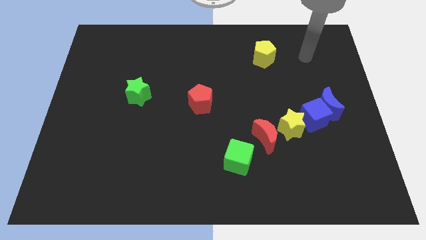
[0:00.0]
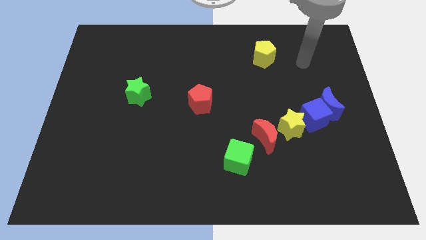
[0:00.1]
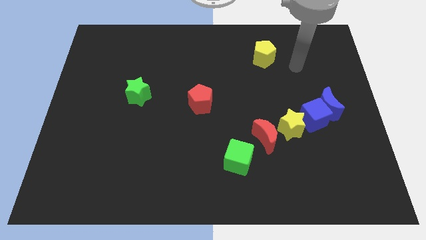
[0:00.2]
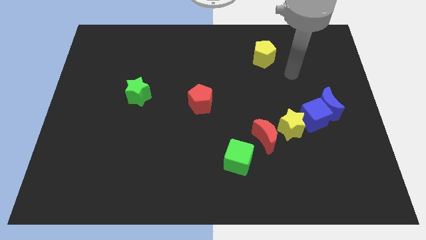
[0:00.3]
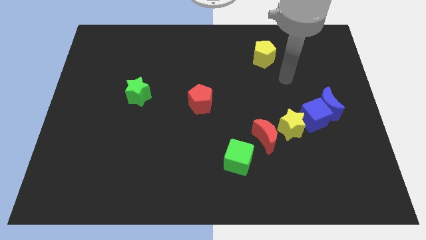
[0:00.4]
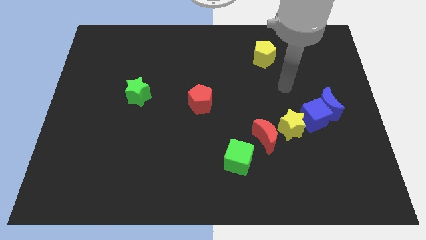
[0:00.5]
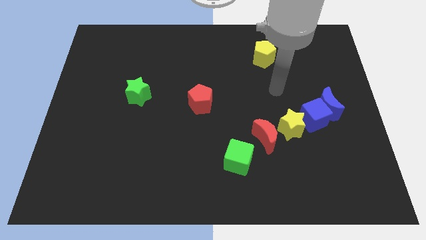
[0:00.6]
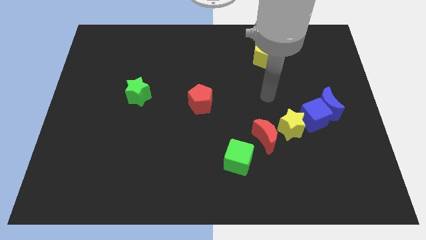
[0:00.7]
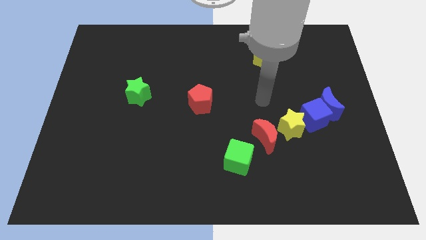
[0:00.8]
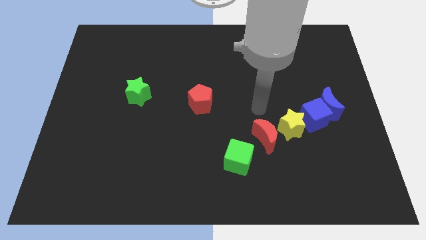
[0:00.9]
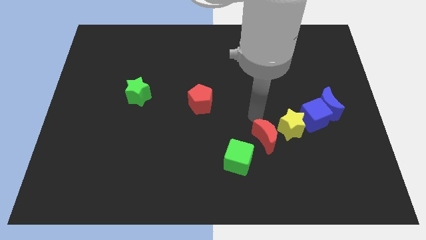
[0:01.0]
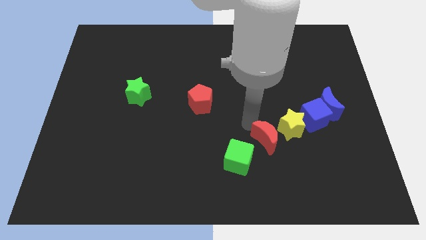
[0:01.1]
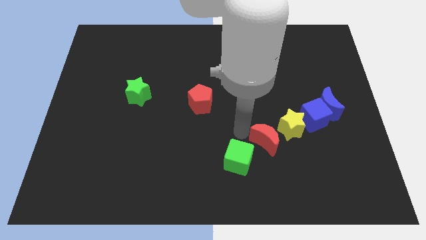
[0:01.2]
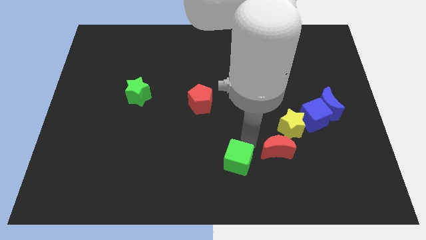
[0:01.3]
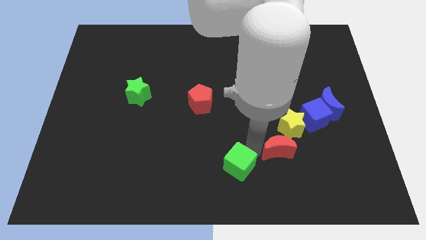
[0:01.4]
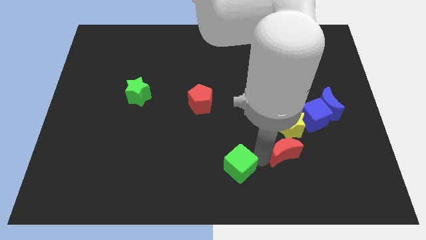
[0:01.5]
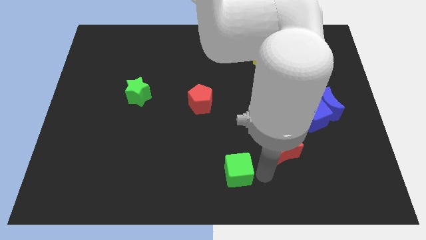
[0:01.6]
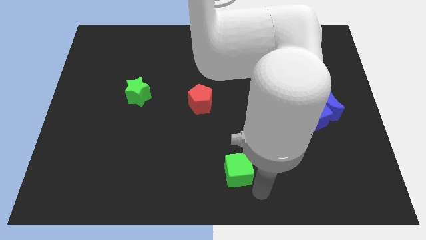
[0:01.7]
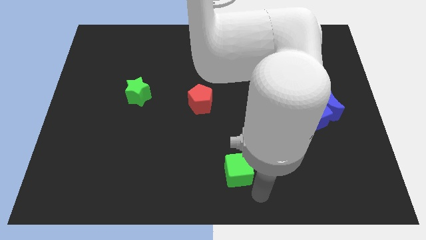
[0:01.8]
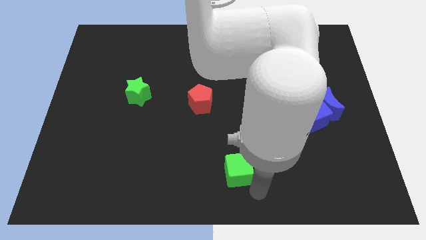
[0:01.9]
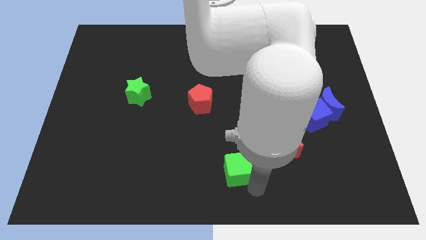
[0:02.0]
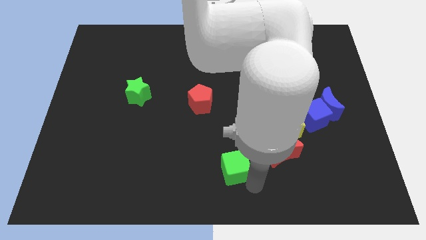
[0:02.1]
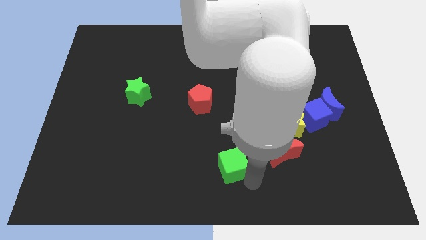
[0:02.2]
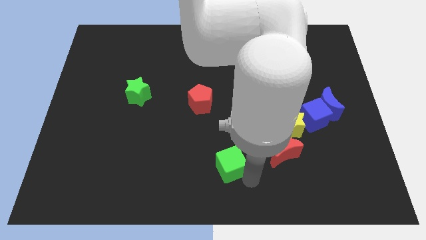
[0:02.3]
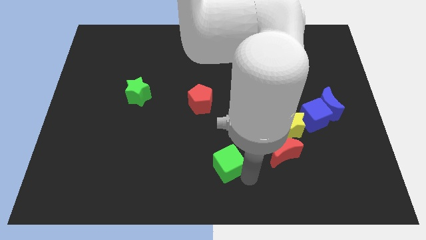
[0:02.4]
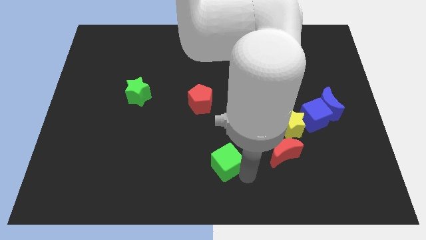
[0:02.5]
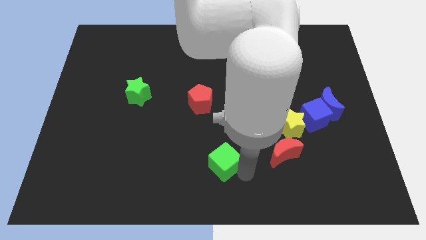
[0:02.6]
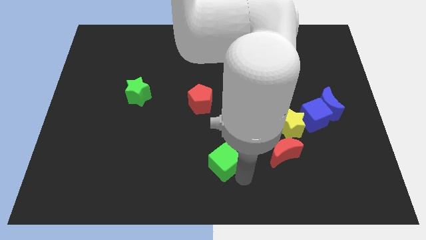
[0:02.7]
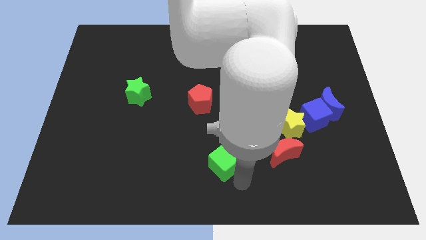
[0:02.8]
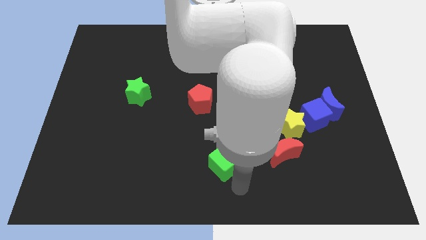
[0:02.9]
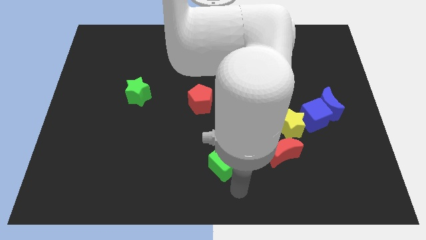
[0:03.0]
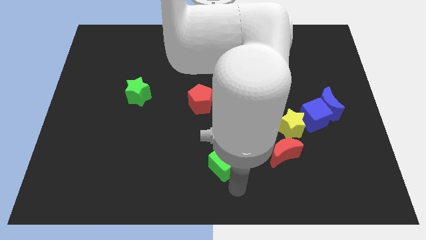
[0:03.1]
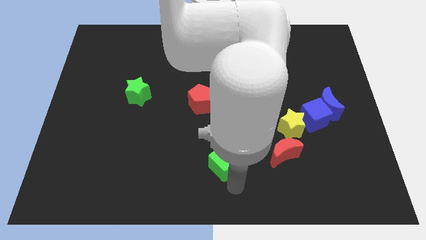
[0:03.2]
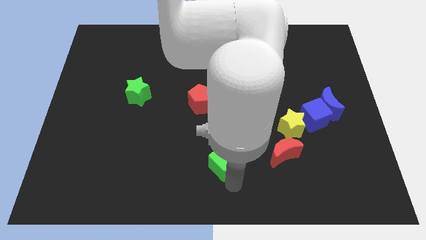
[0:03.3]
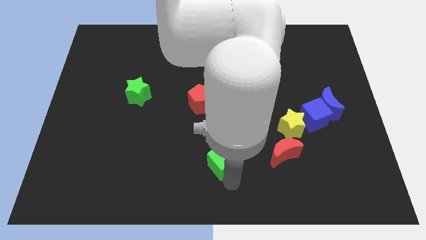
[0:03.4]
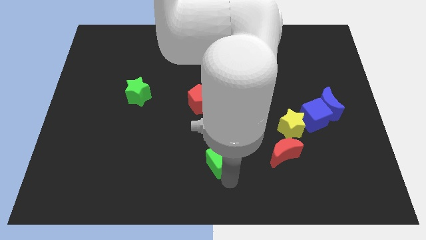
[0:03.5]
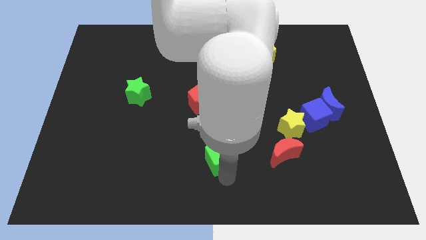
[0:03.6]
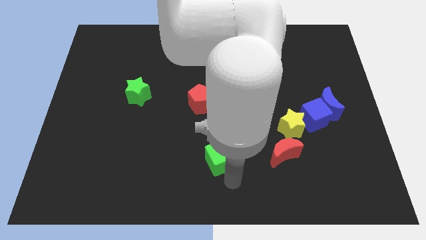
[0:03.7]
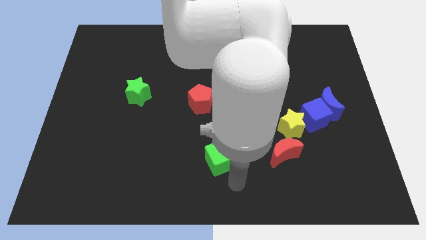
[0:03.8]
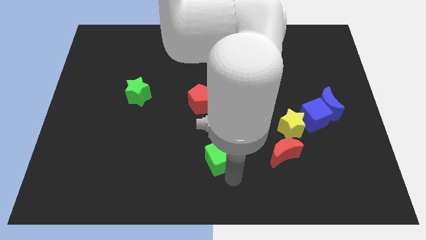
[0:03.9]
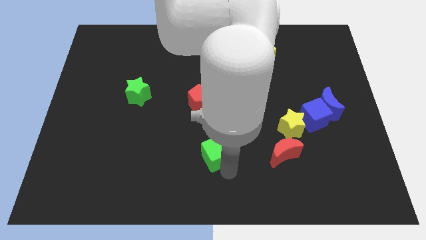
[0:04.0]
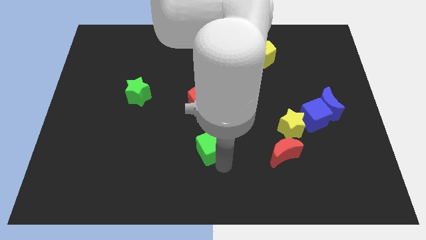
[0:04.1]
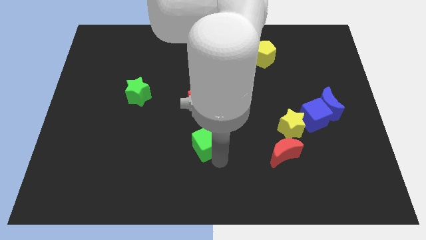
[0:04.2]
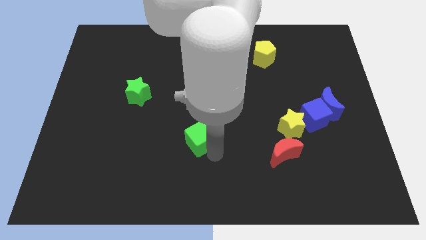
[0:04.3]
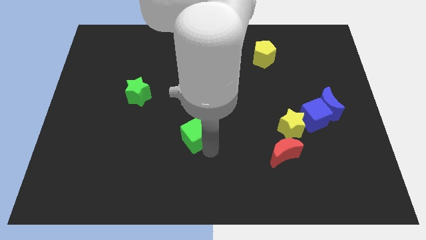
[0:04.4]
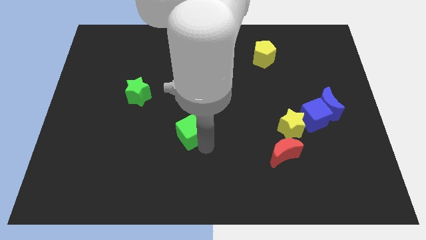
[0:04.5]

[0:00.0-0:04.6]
slide the green cube to the bottom left side of the red pentagon

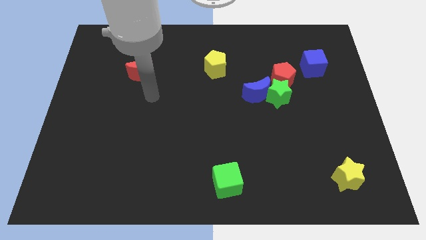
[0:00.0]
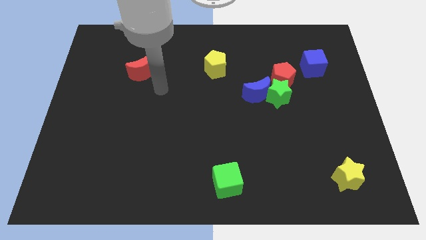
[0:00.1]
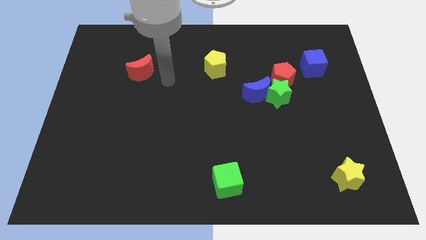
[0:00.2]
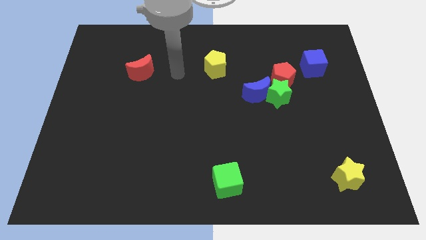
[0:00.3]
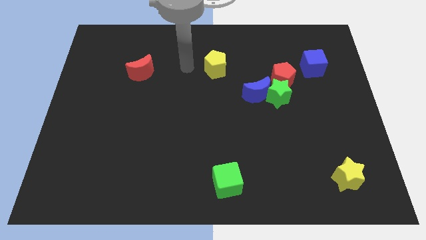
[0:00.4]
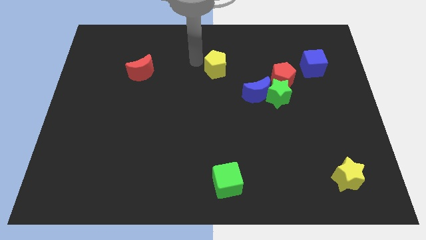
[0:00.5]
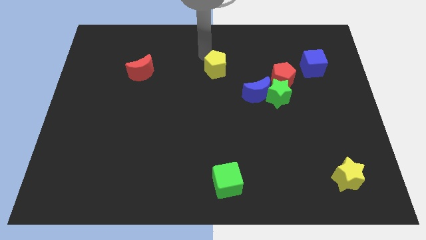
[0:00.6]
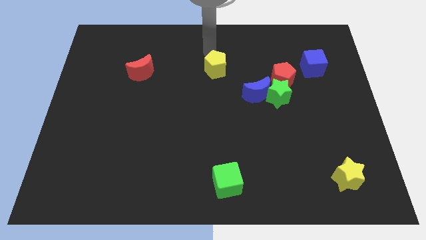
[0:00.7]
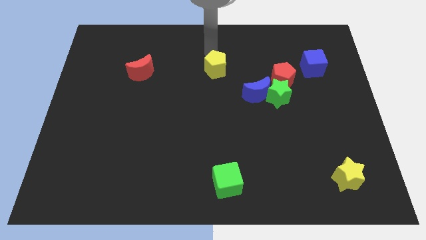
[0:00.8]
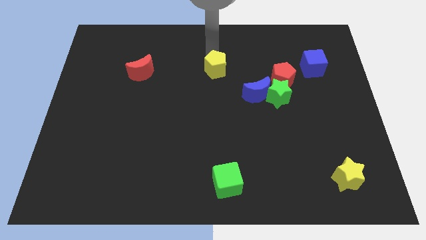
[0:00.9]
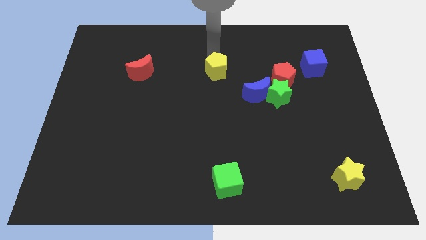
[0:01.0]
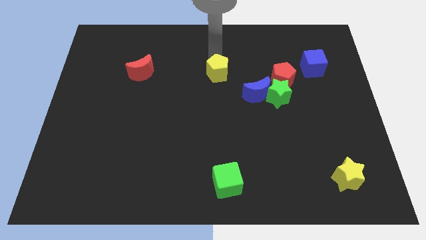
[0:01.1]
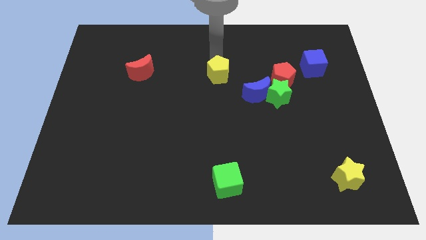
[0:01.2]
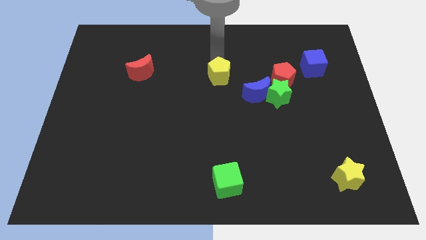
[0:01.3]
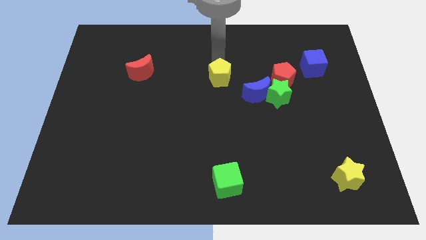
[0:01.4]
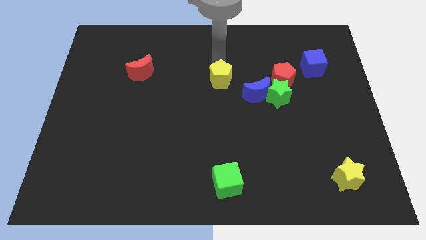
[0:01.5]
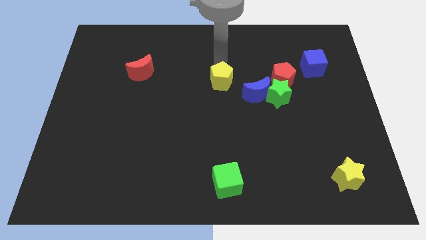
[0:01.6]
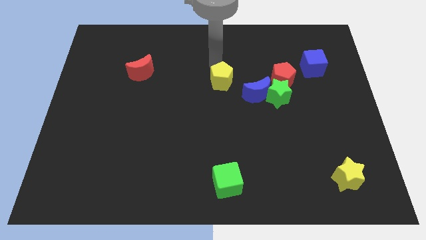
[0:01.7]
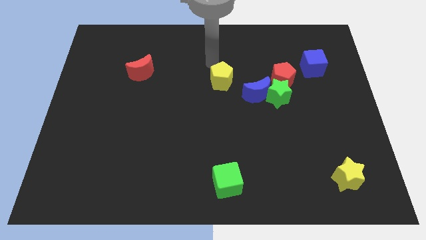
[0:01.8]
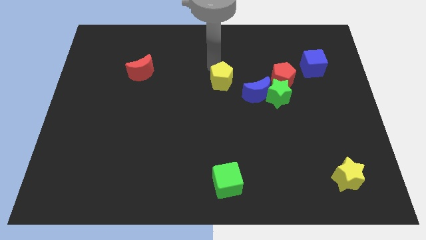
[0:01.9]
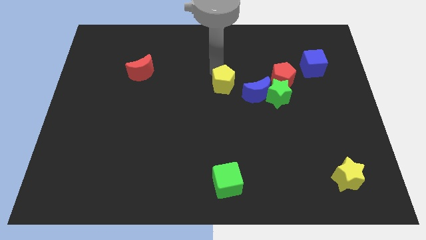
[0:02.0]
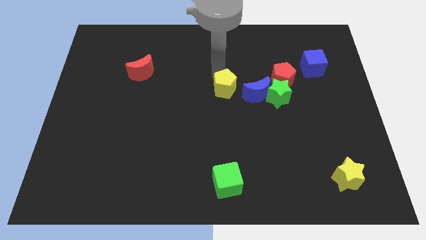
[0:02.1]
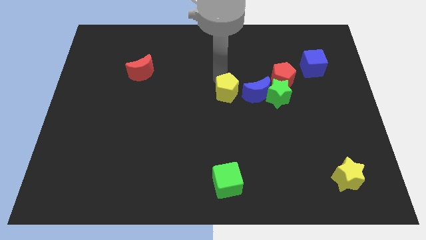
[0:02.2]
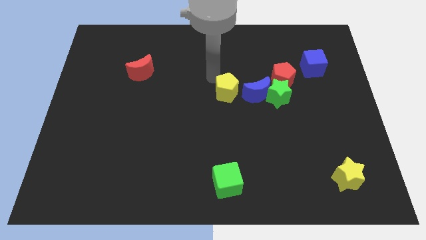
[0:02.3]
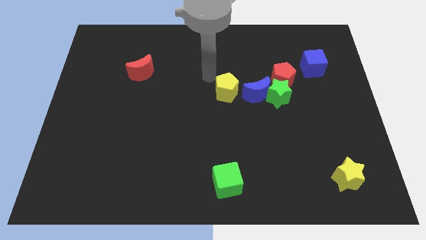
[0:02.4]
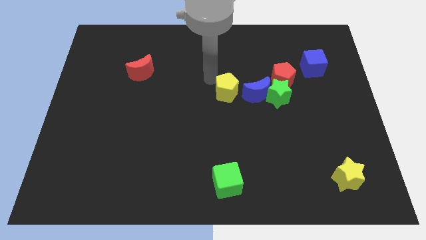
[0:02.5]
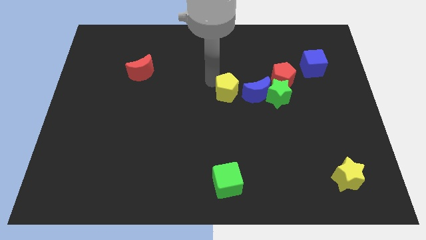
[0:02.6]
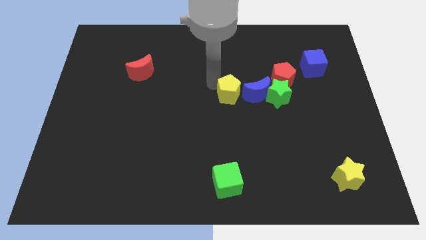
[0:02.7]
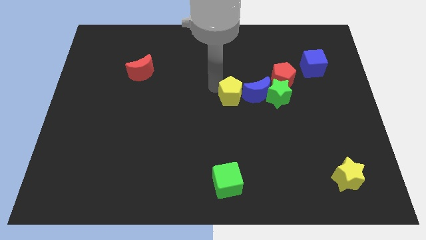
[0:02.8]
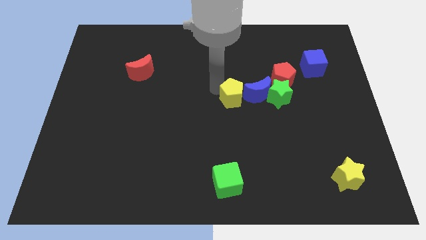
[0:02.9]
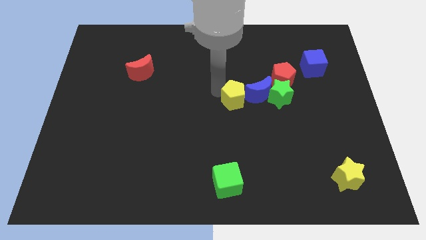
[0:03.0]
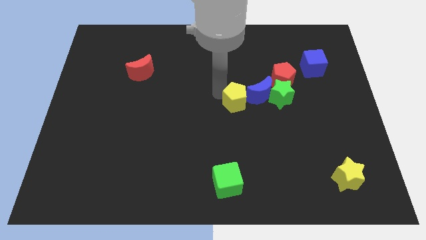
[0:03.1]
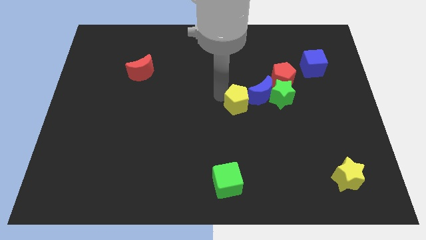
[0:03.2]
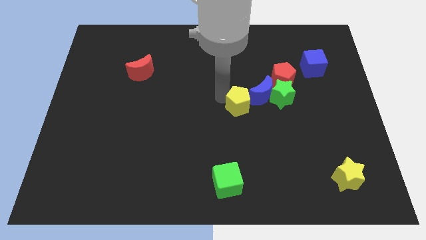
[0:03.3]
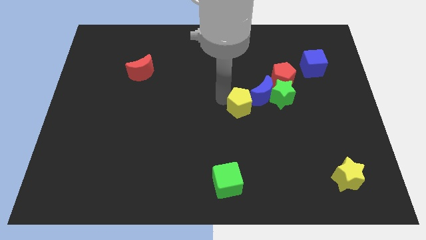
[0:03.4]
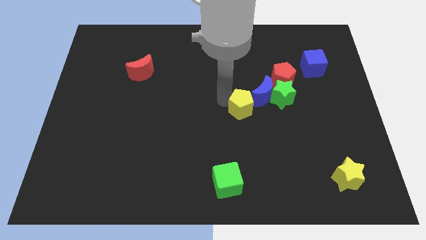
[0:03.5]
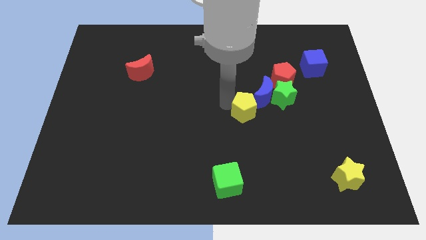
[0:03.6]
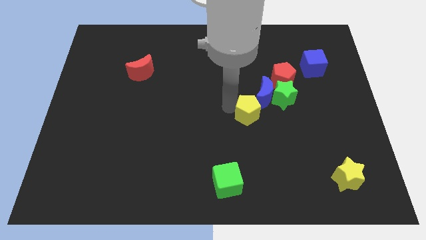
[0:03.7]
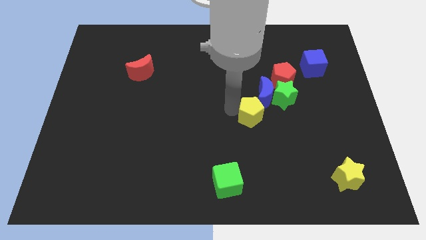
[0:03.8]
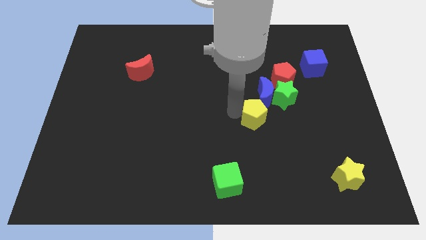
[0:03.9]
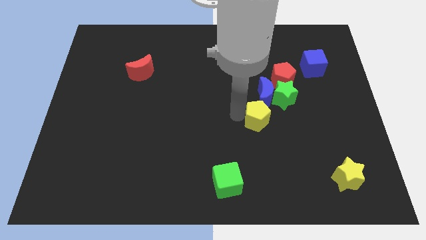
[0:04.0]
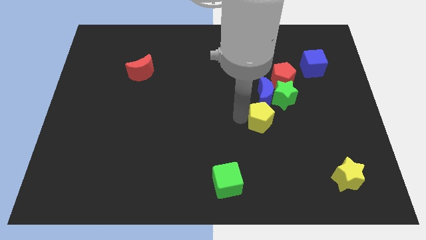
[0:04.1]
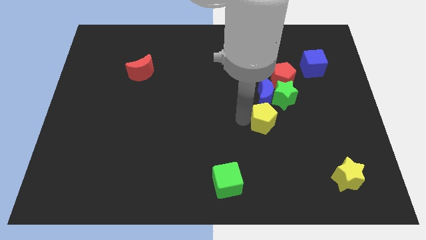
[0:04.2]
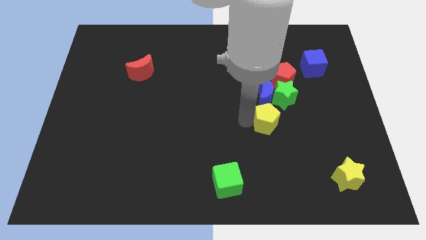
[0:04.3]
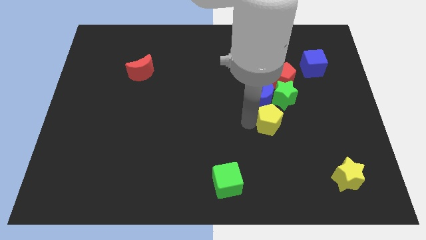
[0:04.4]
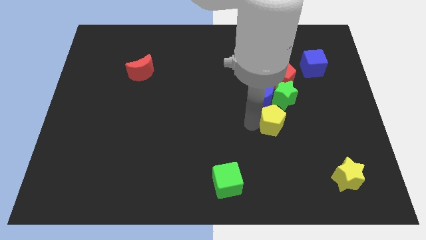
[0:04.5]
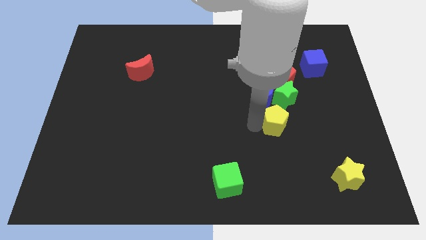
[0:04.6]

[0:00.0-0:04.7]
push the yellow pentagon to the bottom right side of the blue moon
